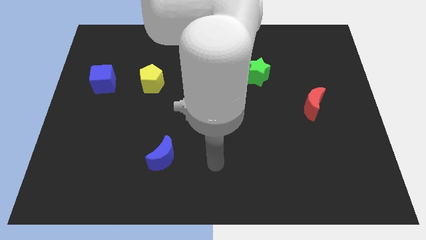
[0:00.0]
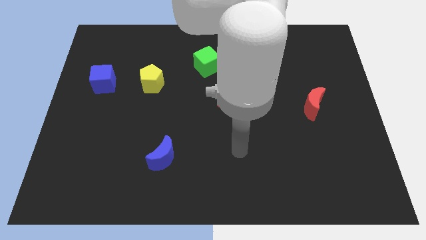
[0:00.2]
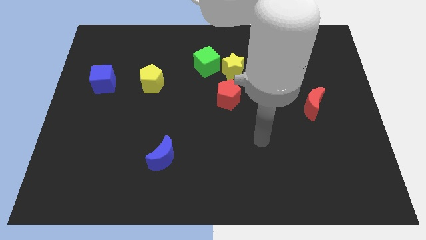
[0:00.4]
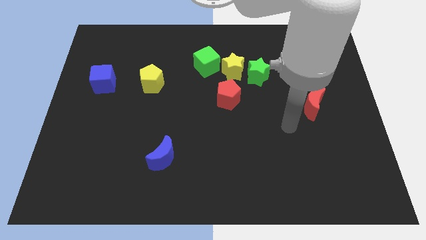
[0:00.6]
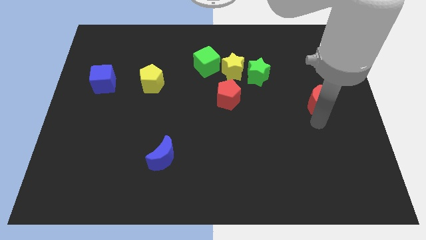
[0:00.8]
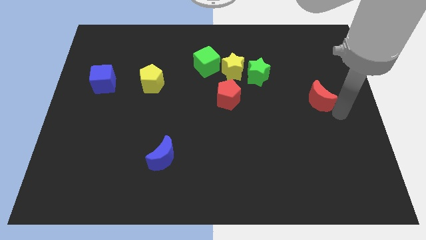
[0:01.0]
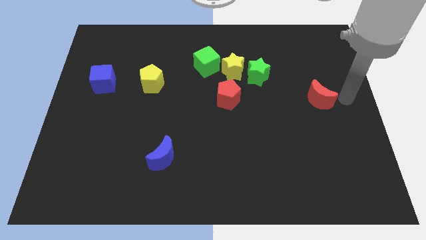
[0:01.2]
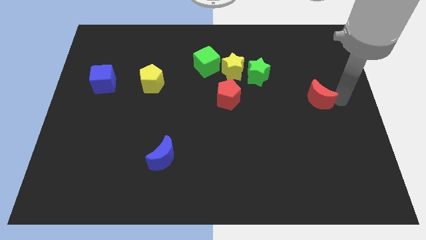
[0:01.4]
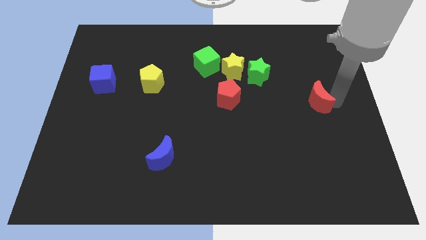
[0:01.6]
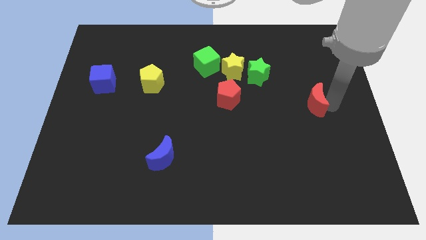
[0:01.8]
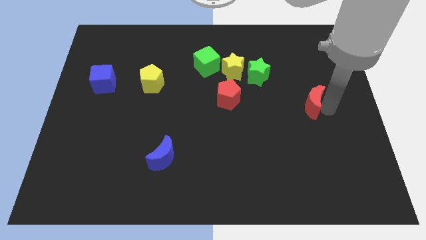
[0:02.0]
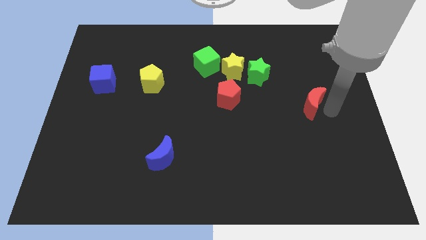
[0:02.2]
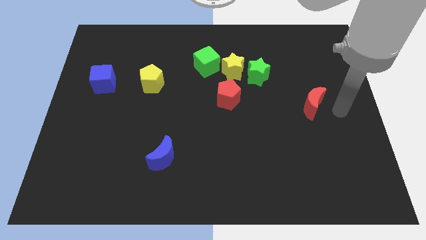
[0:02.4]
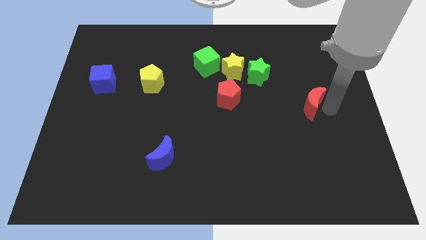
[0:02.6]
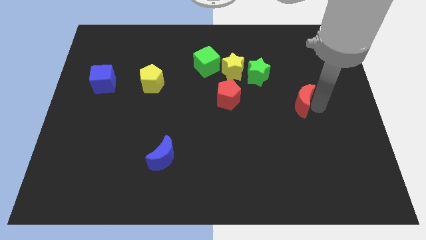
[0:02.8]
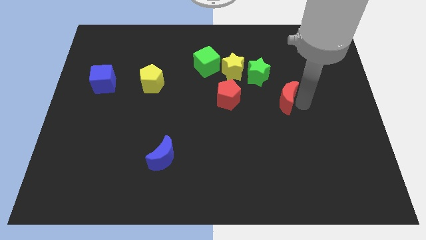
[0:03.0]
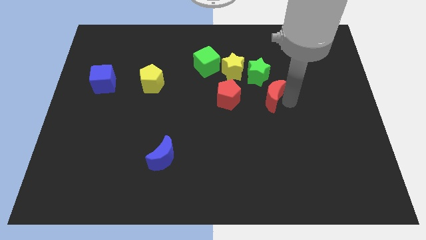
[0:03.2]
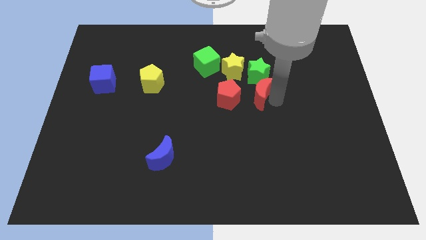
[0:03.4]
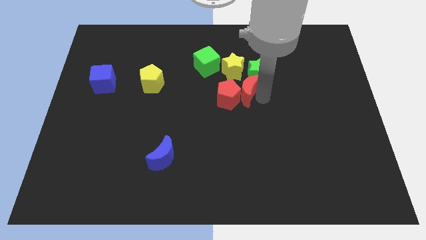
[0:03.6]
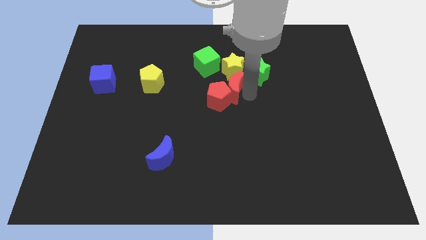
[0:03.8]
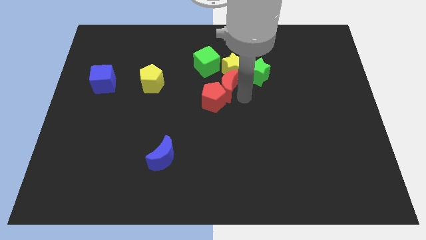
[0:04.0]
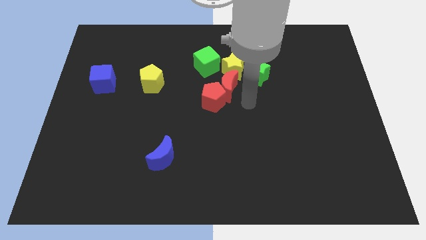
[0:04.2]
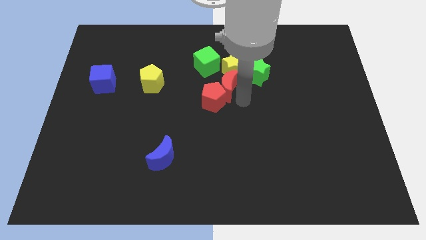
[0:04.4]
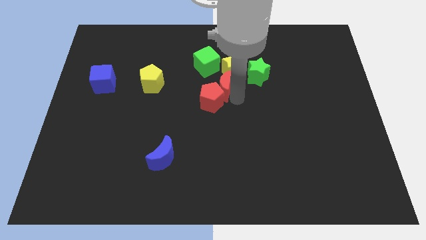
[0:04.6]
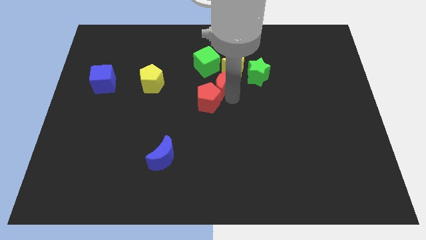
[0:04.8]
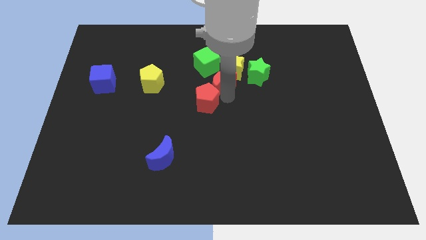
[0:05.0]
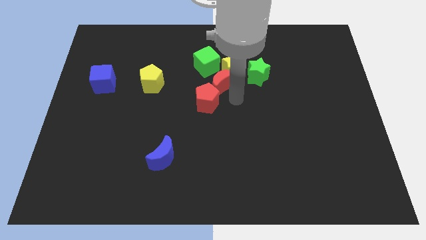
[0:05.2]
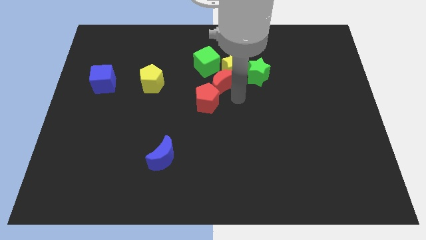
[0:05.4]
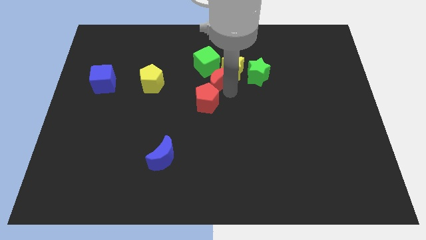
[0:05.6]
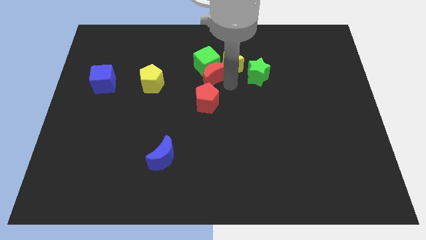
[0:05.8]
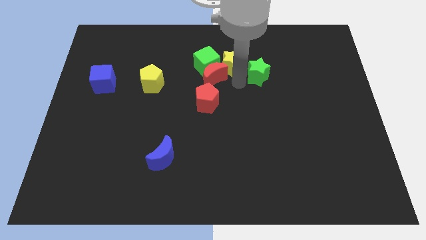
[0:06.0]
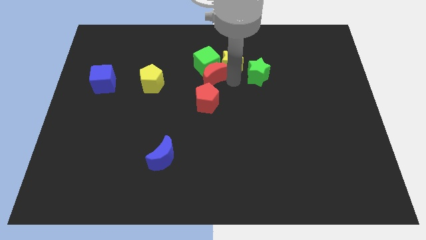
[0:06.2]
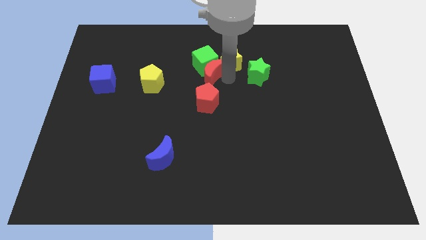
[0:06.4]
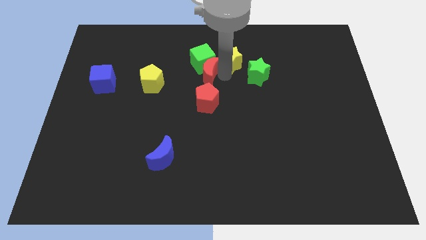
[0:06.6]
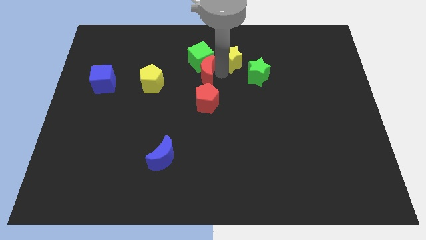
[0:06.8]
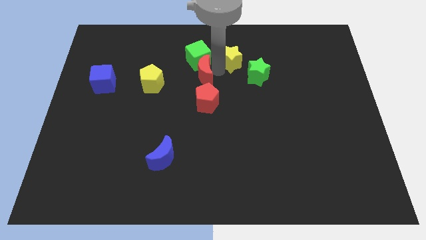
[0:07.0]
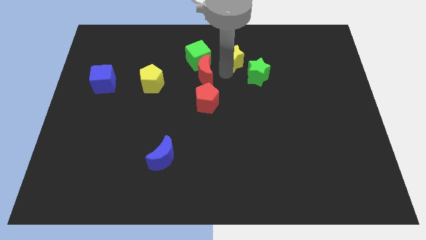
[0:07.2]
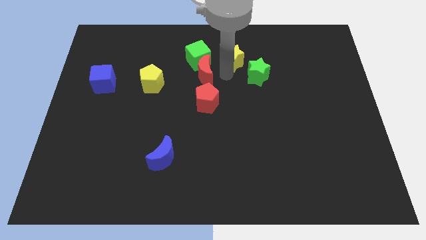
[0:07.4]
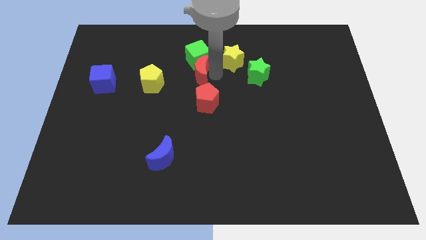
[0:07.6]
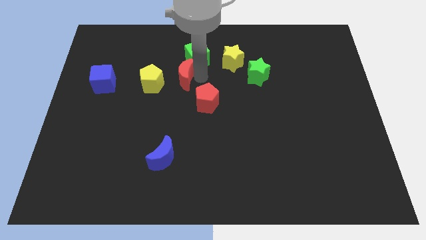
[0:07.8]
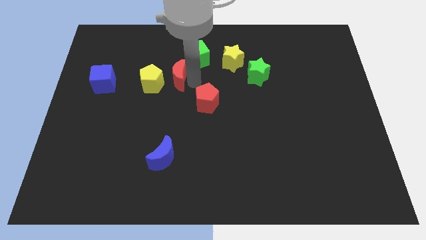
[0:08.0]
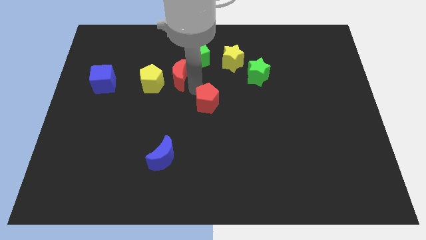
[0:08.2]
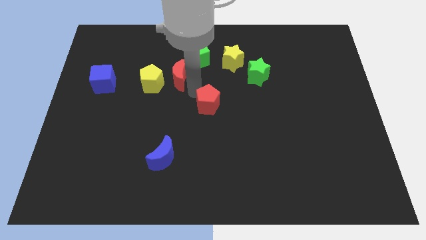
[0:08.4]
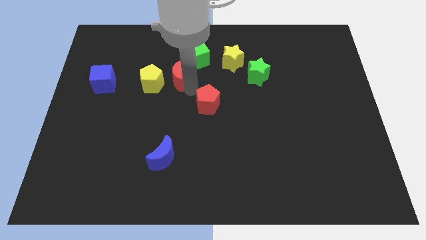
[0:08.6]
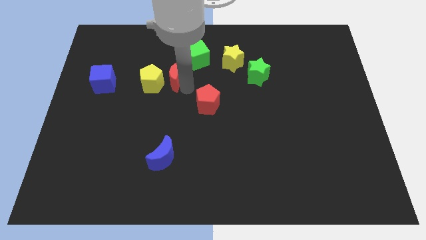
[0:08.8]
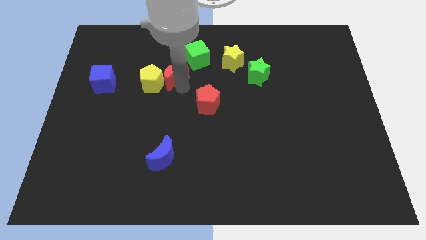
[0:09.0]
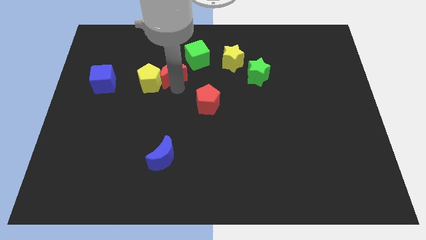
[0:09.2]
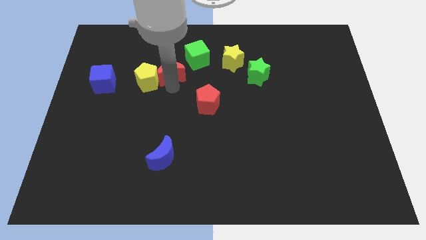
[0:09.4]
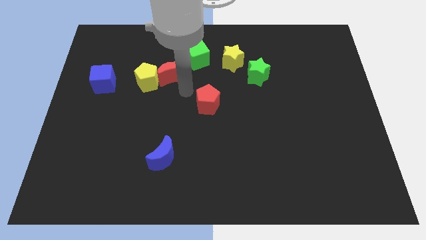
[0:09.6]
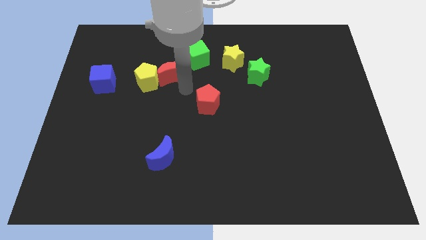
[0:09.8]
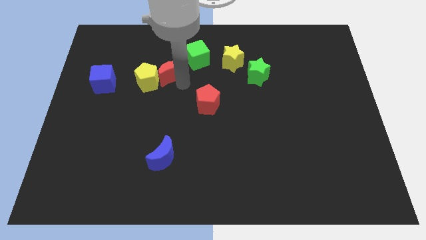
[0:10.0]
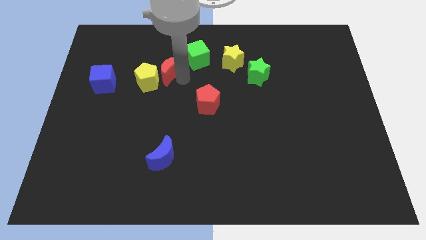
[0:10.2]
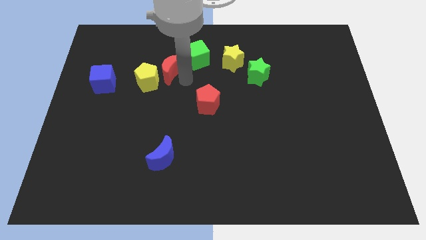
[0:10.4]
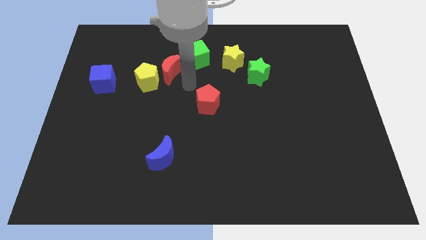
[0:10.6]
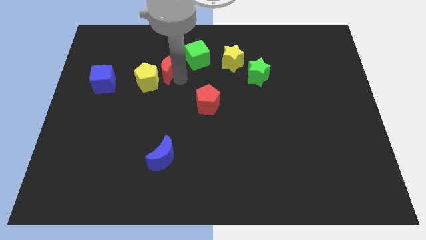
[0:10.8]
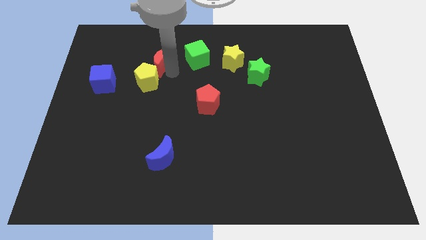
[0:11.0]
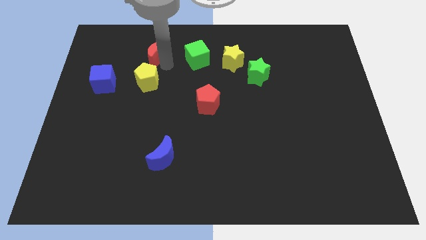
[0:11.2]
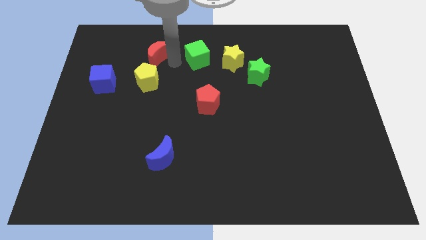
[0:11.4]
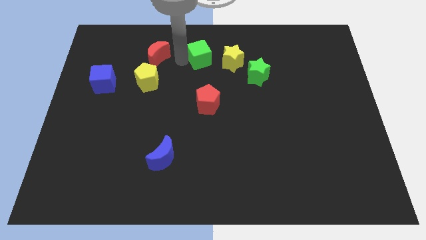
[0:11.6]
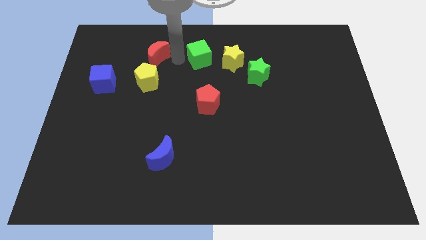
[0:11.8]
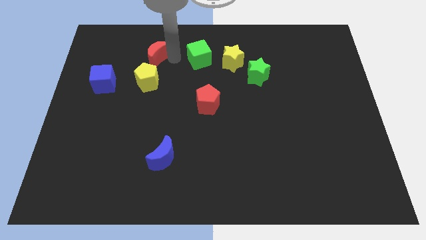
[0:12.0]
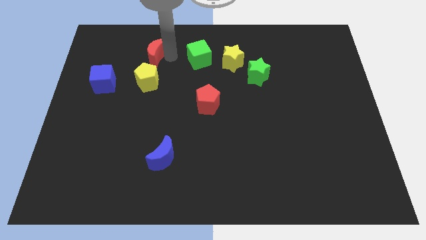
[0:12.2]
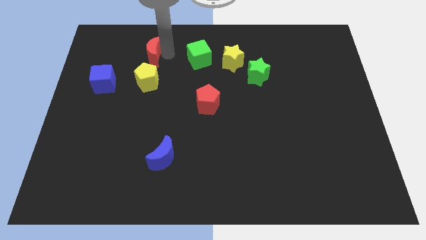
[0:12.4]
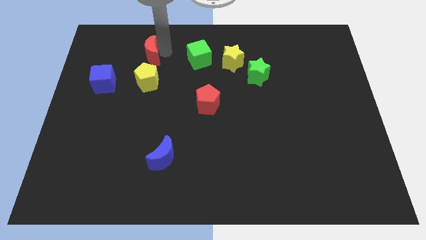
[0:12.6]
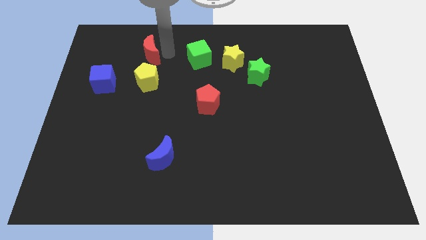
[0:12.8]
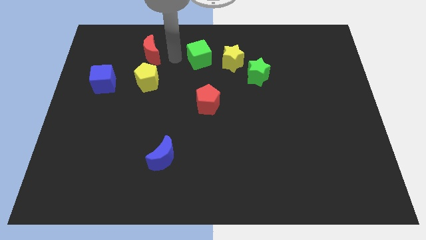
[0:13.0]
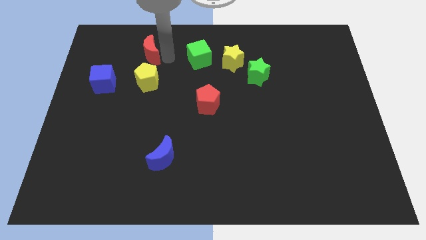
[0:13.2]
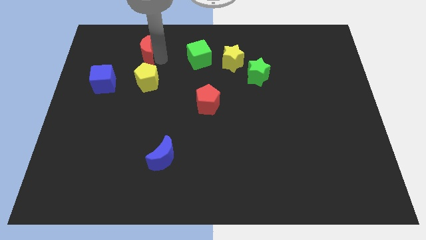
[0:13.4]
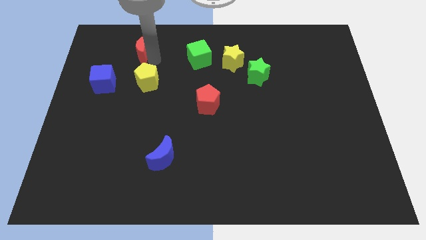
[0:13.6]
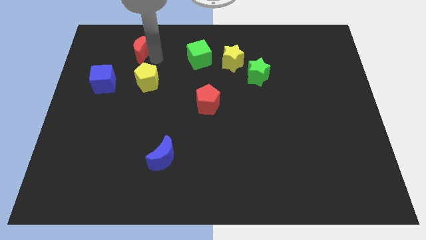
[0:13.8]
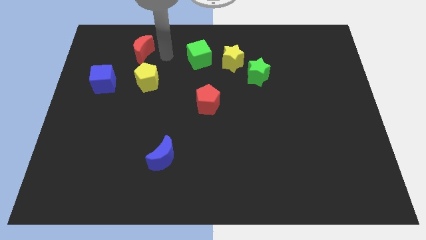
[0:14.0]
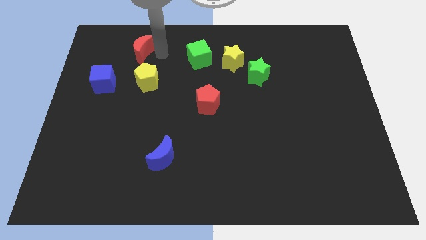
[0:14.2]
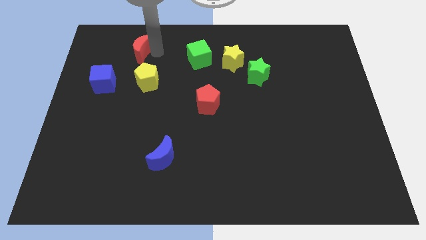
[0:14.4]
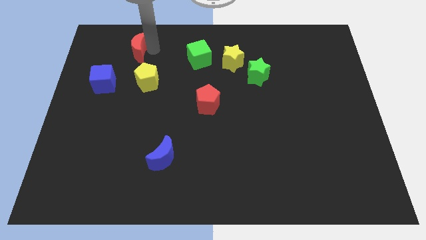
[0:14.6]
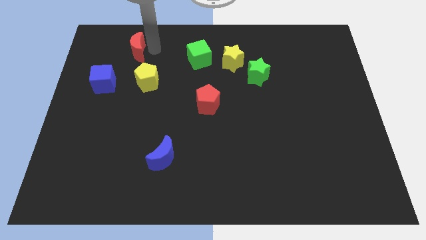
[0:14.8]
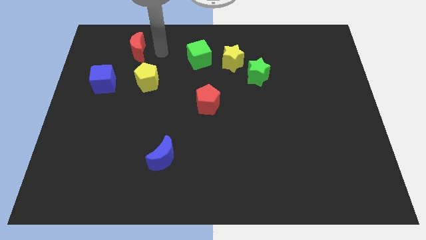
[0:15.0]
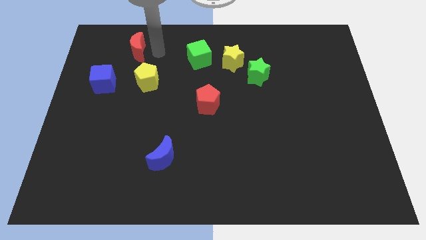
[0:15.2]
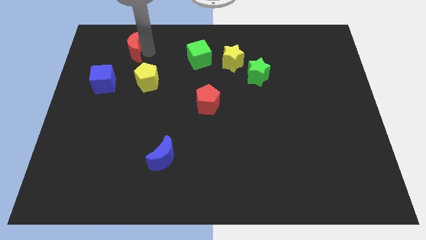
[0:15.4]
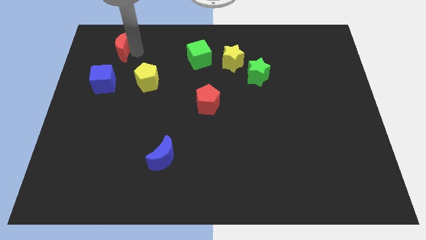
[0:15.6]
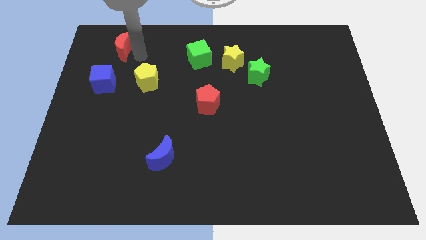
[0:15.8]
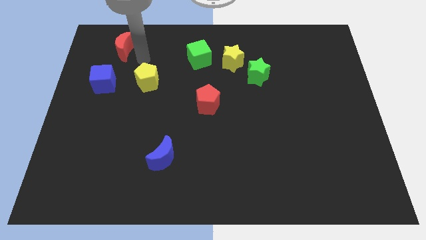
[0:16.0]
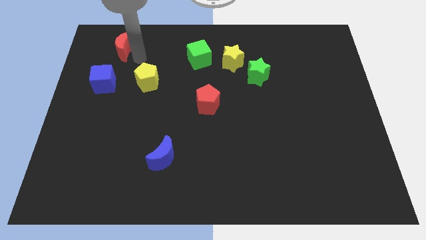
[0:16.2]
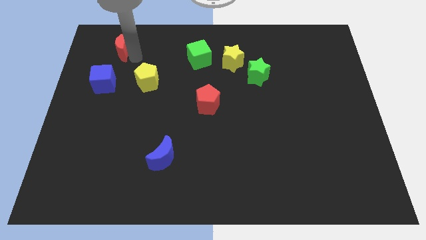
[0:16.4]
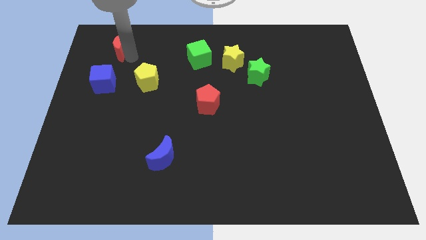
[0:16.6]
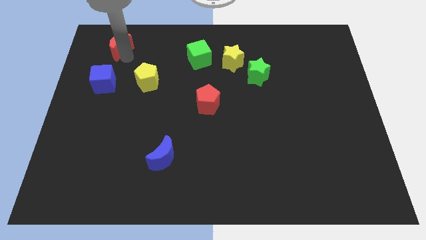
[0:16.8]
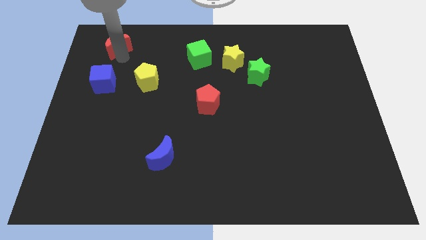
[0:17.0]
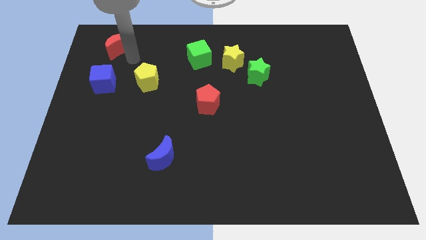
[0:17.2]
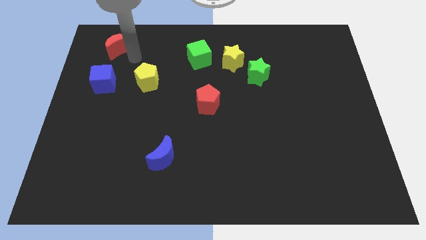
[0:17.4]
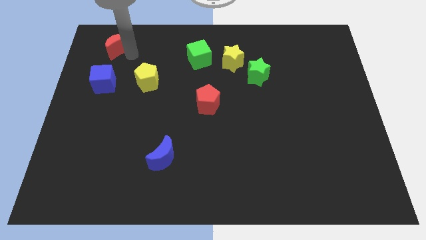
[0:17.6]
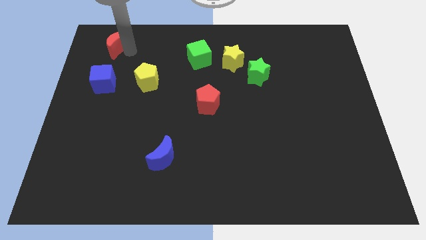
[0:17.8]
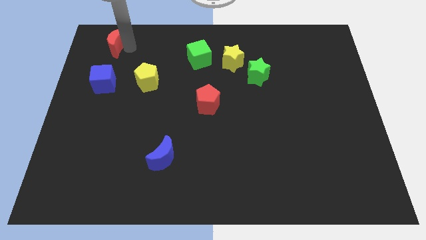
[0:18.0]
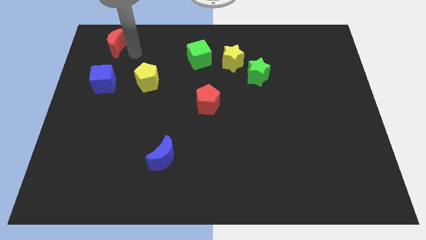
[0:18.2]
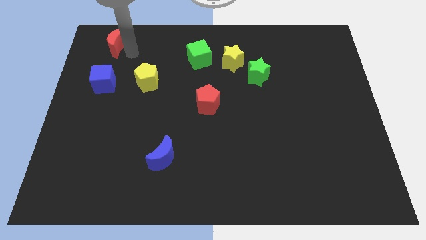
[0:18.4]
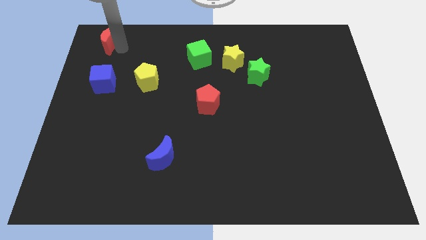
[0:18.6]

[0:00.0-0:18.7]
push the red moon to the top left of the board
